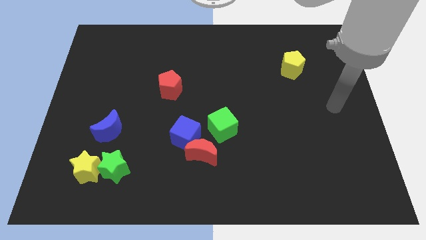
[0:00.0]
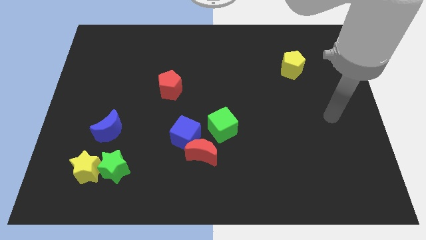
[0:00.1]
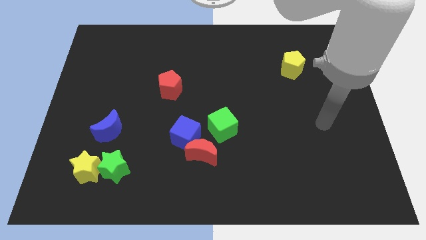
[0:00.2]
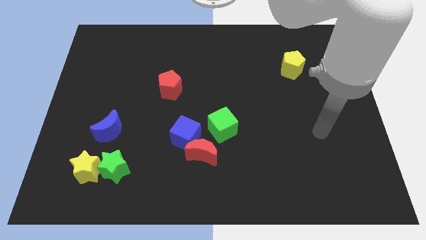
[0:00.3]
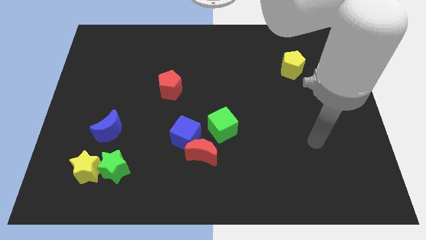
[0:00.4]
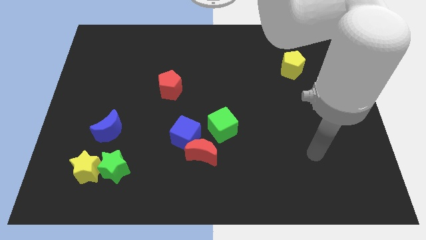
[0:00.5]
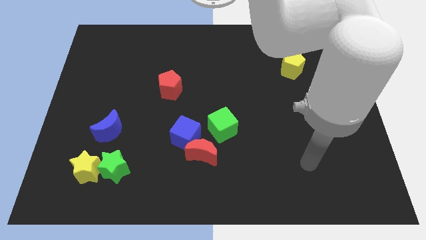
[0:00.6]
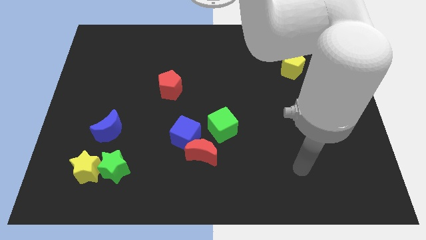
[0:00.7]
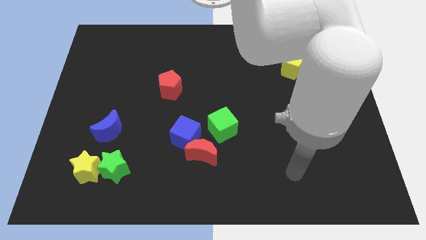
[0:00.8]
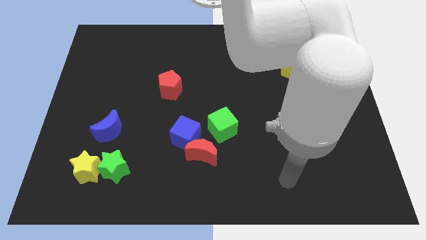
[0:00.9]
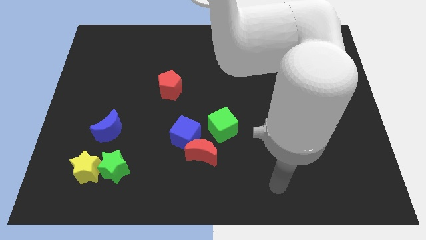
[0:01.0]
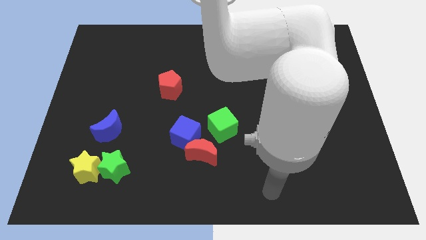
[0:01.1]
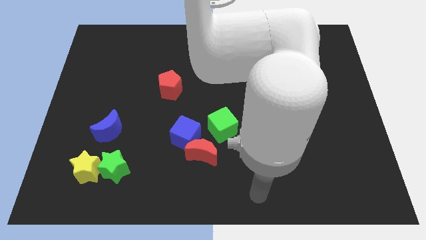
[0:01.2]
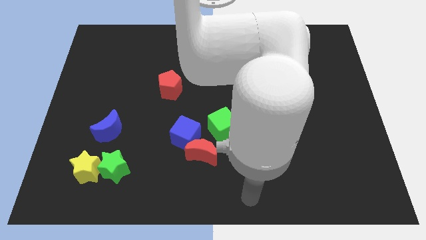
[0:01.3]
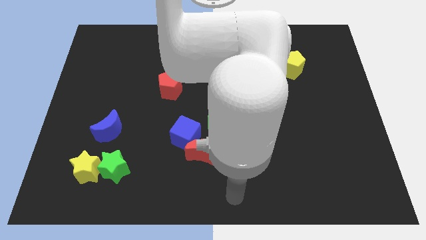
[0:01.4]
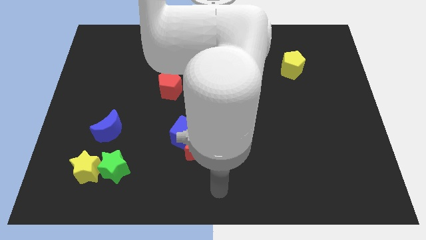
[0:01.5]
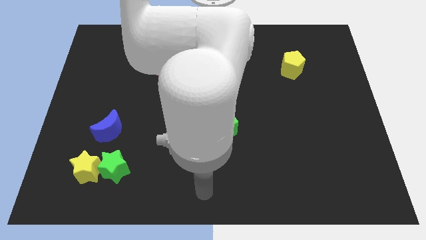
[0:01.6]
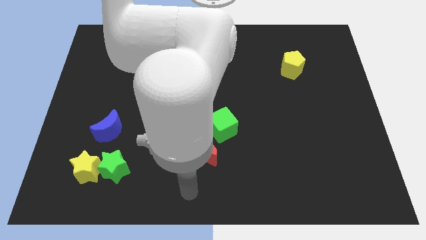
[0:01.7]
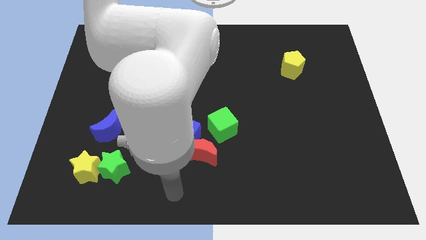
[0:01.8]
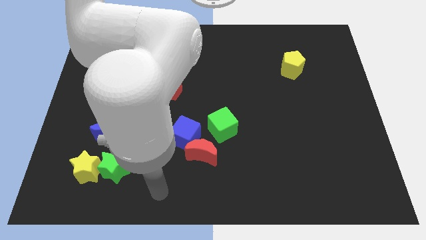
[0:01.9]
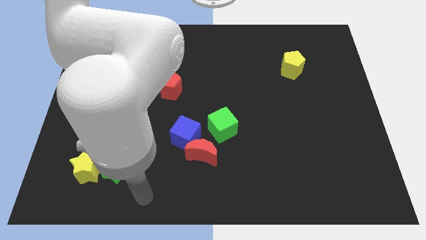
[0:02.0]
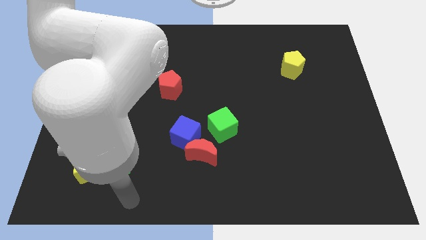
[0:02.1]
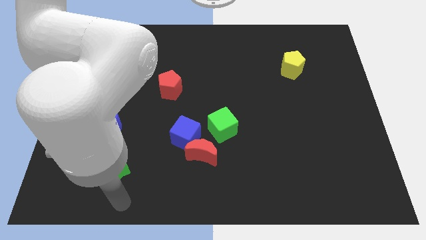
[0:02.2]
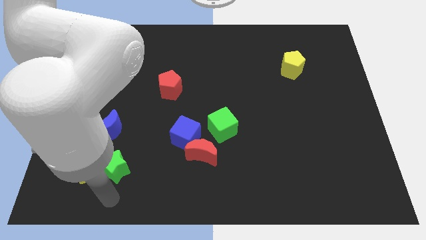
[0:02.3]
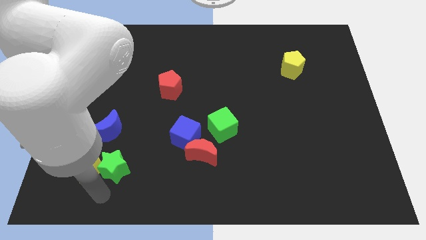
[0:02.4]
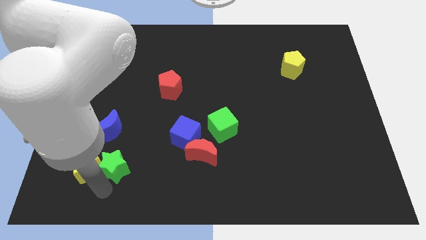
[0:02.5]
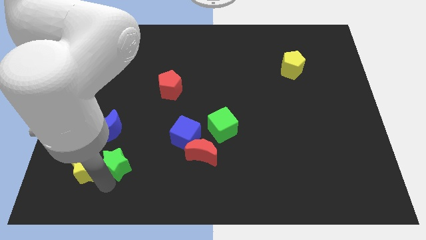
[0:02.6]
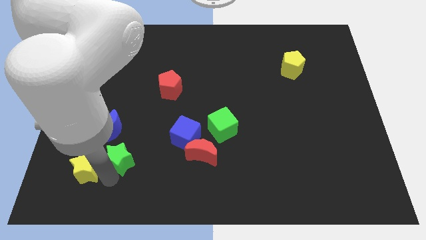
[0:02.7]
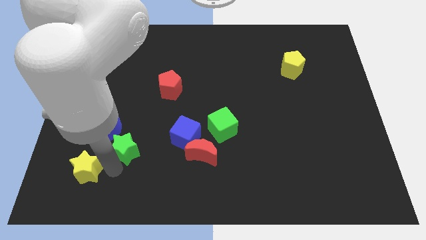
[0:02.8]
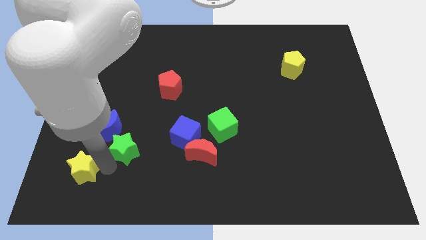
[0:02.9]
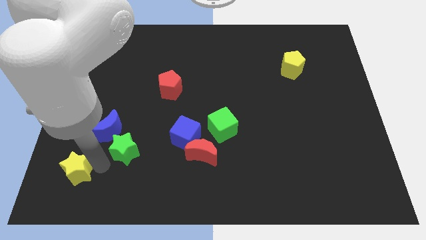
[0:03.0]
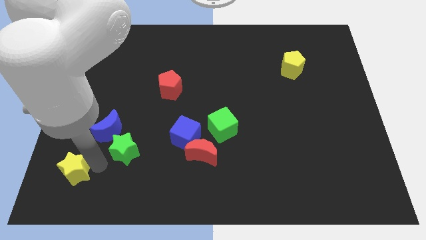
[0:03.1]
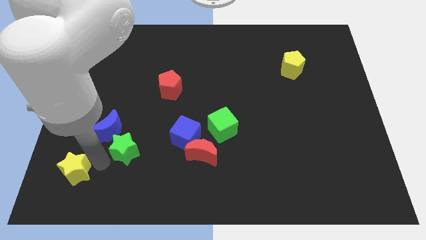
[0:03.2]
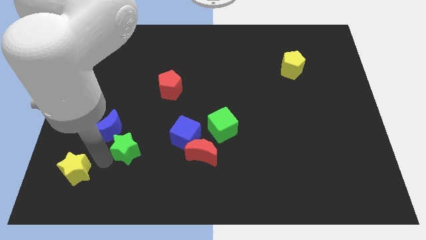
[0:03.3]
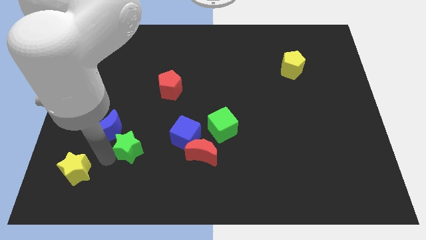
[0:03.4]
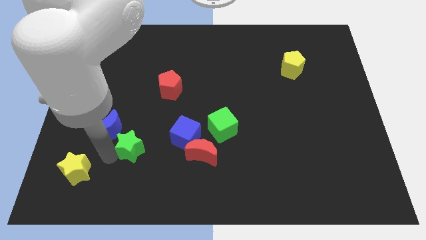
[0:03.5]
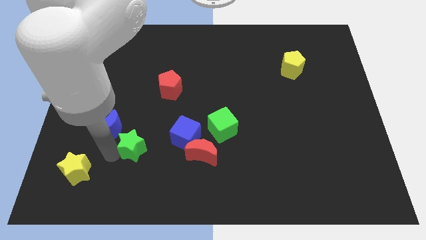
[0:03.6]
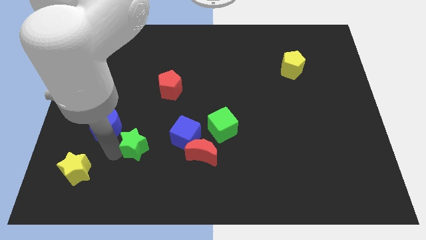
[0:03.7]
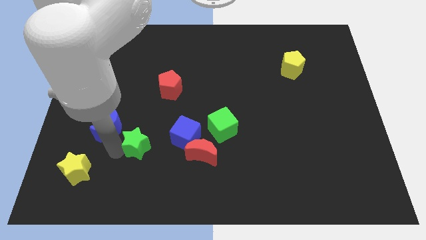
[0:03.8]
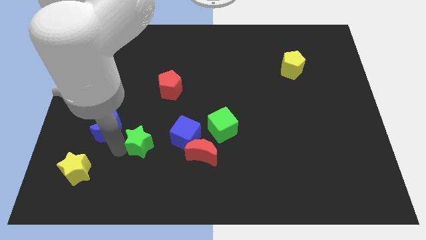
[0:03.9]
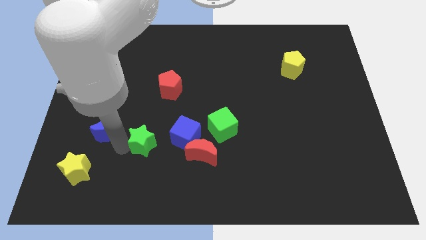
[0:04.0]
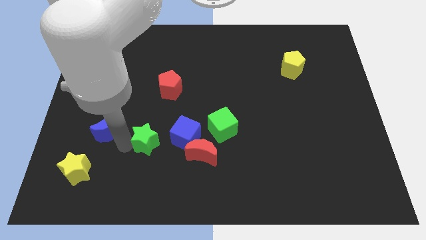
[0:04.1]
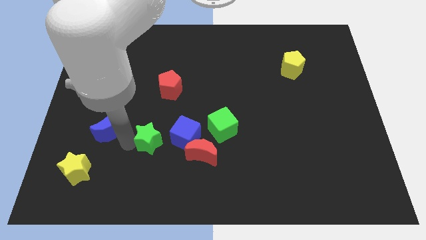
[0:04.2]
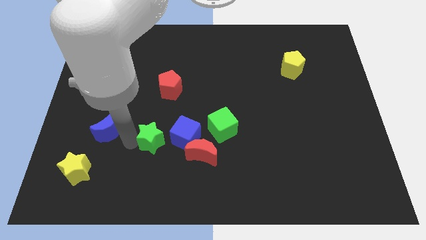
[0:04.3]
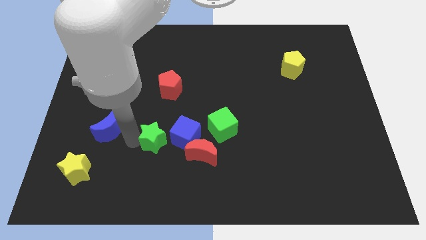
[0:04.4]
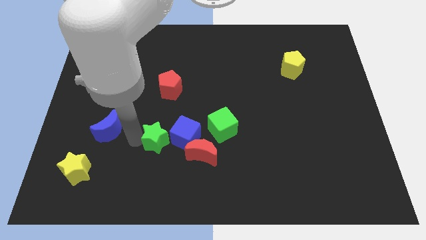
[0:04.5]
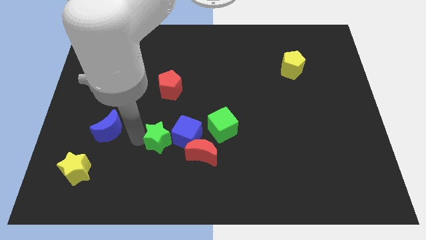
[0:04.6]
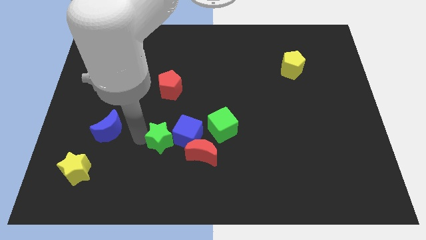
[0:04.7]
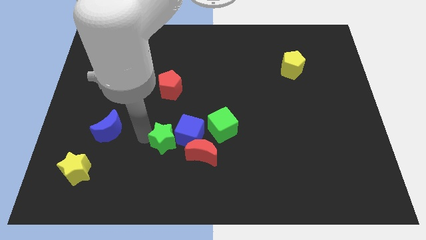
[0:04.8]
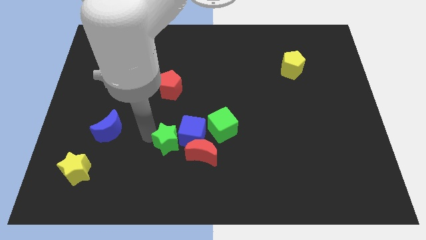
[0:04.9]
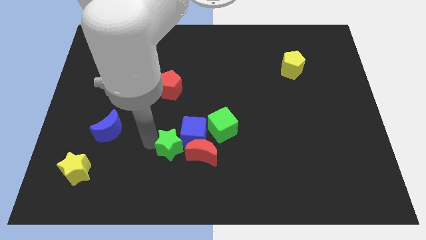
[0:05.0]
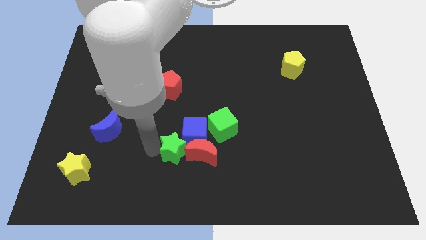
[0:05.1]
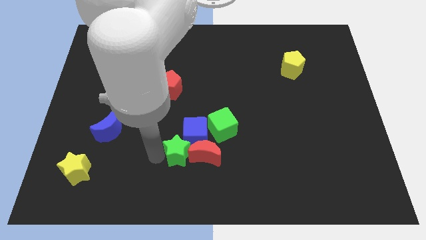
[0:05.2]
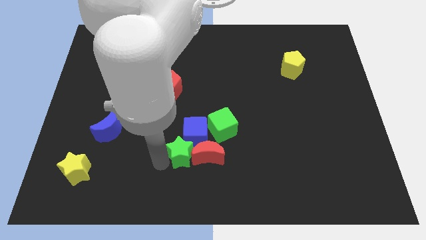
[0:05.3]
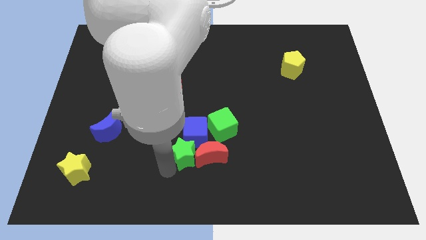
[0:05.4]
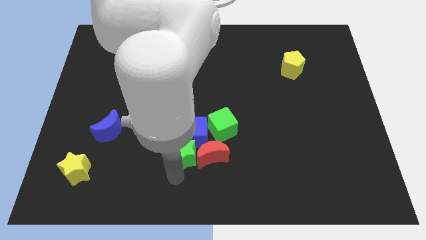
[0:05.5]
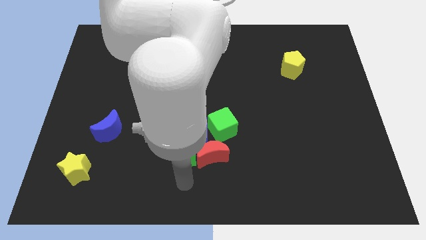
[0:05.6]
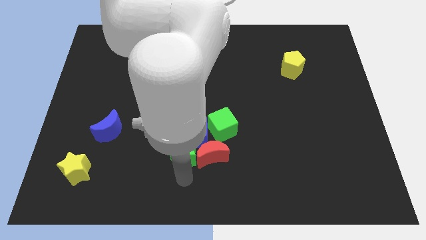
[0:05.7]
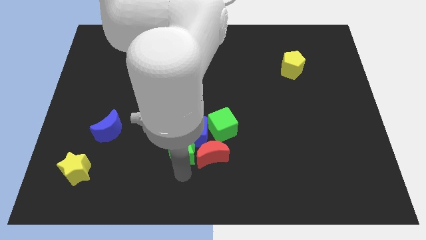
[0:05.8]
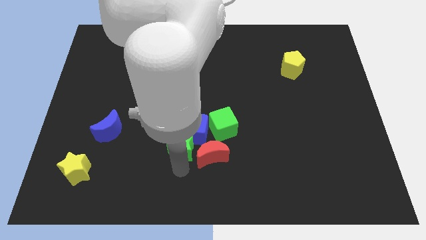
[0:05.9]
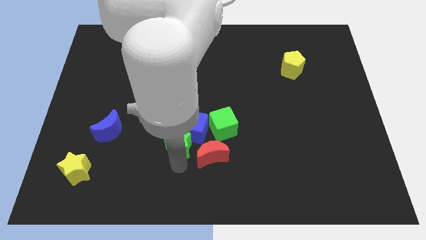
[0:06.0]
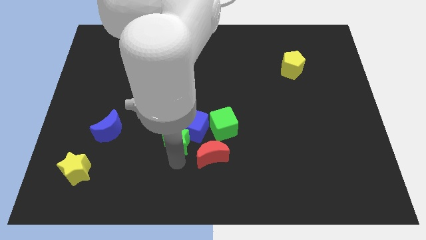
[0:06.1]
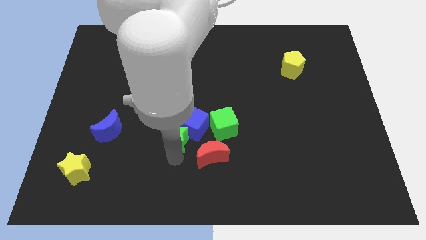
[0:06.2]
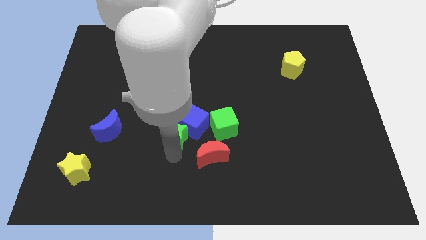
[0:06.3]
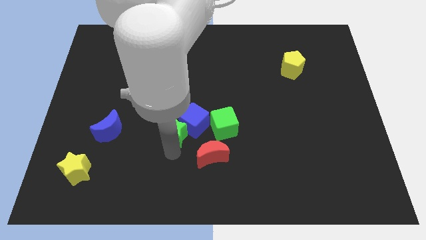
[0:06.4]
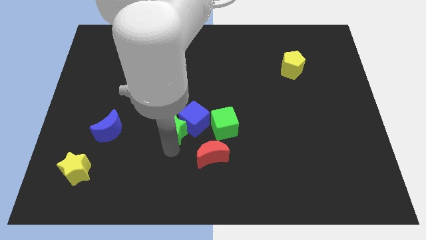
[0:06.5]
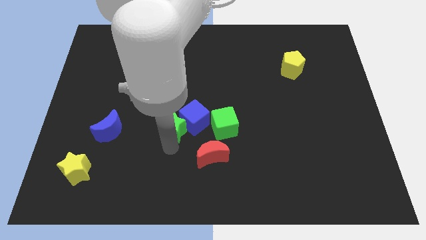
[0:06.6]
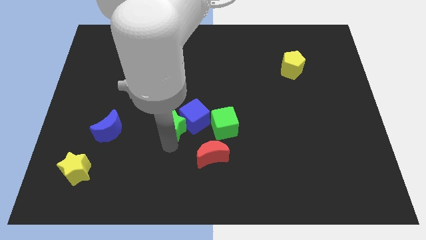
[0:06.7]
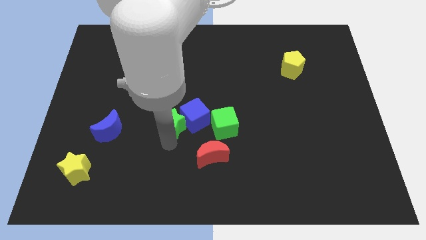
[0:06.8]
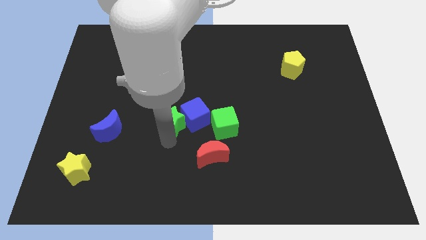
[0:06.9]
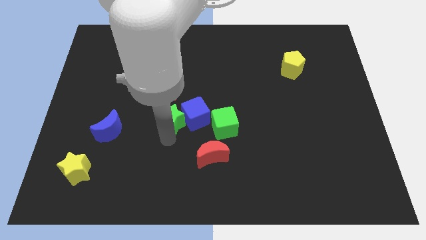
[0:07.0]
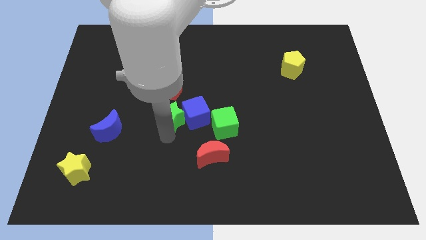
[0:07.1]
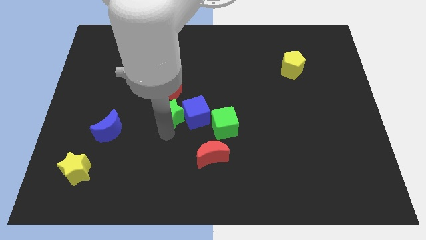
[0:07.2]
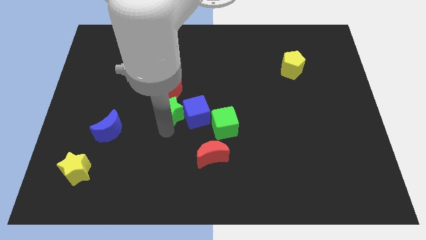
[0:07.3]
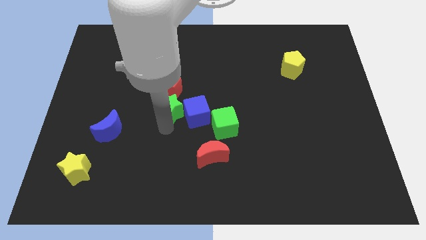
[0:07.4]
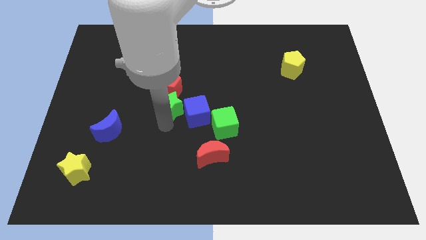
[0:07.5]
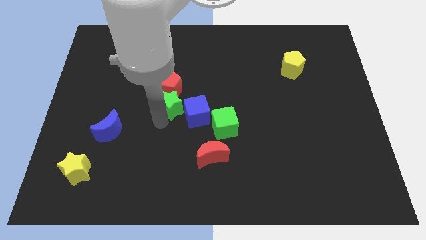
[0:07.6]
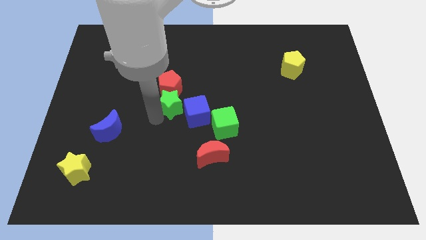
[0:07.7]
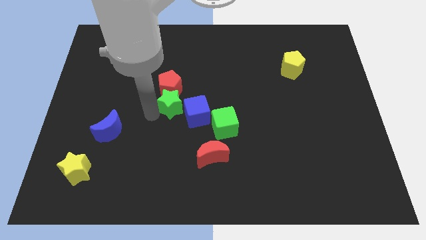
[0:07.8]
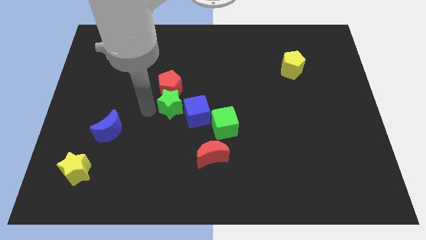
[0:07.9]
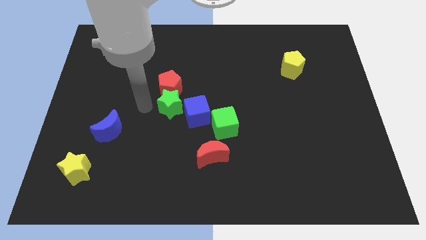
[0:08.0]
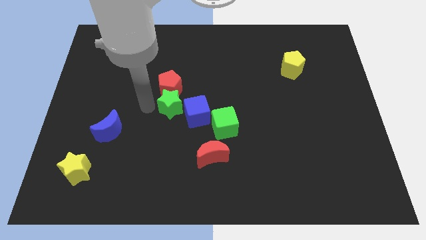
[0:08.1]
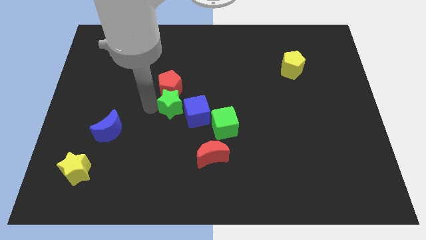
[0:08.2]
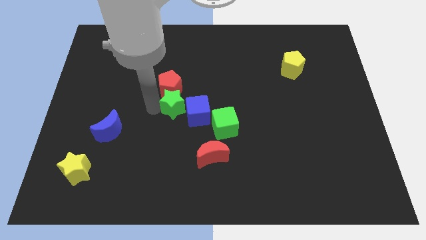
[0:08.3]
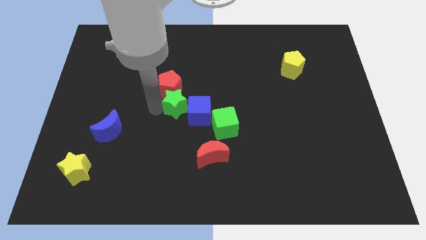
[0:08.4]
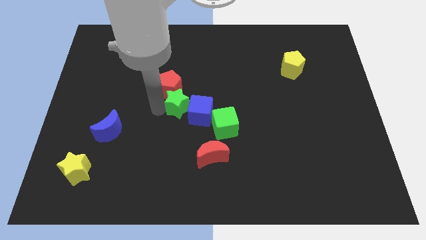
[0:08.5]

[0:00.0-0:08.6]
push the green star upwards and to the right diagonally
